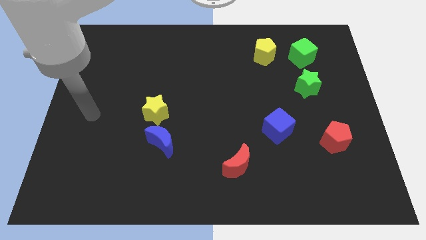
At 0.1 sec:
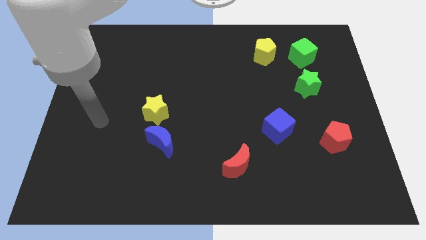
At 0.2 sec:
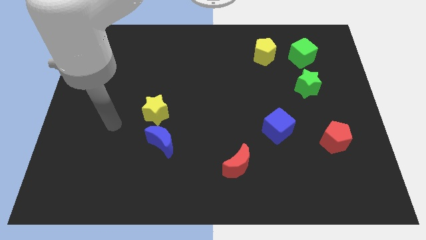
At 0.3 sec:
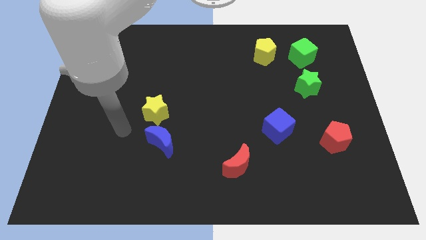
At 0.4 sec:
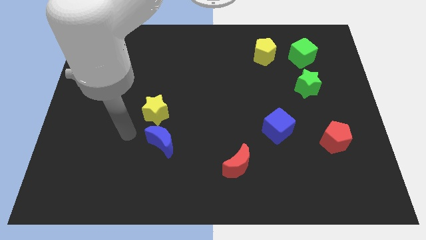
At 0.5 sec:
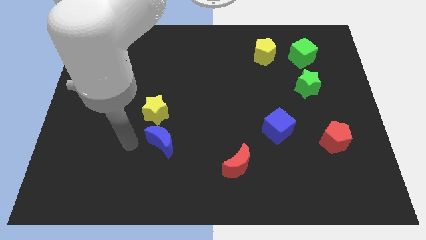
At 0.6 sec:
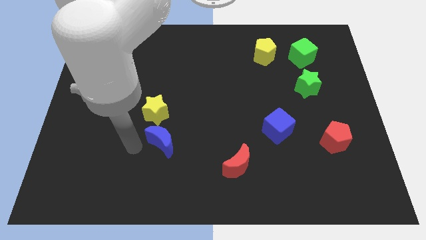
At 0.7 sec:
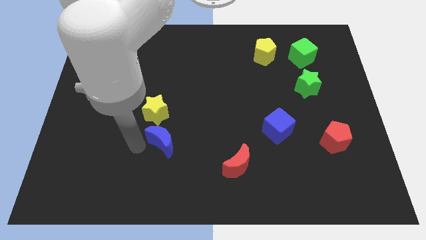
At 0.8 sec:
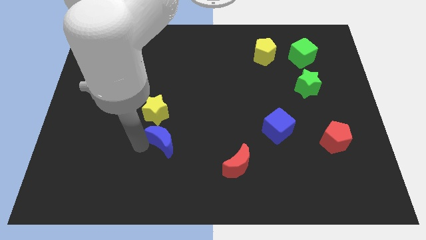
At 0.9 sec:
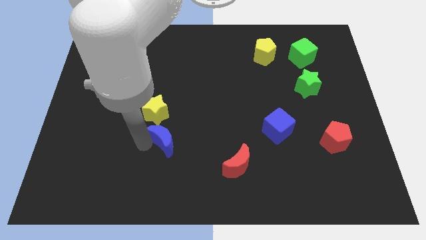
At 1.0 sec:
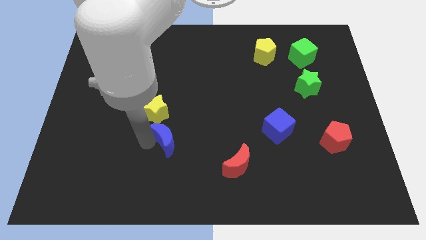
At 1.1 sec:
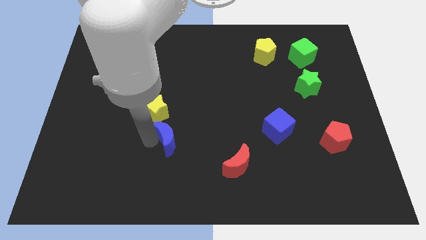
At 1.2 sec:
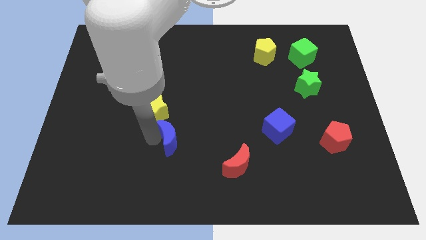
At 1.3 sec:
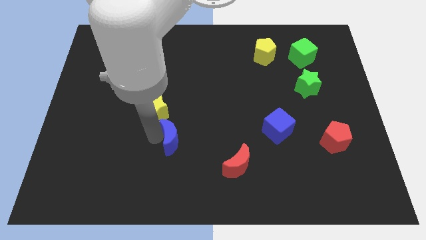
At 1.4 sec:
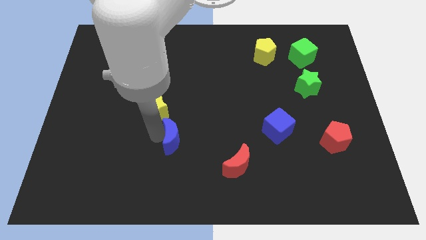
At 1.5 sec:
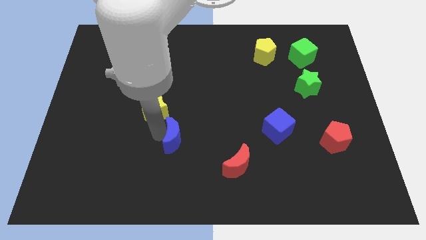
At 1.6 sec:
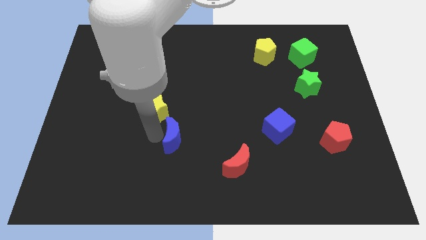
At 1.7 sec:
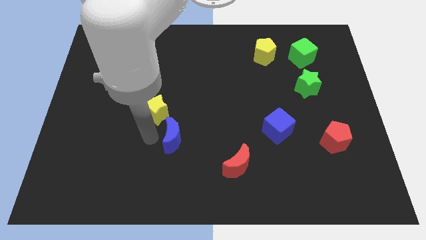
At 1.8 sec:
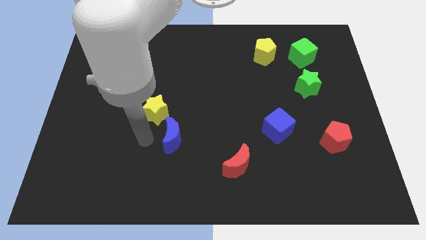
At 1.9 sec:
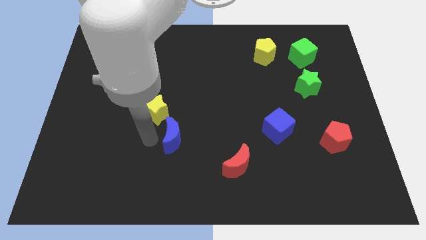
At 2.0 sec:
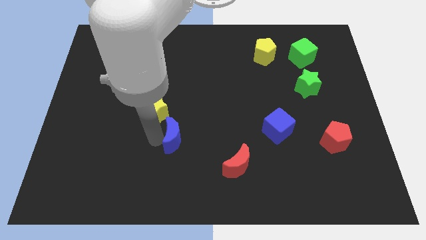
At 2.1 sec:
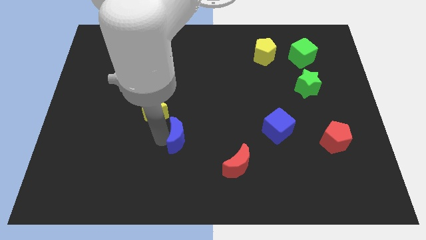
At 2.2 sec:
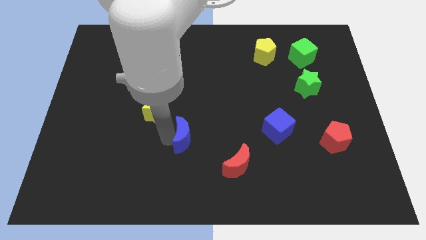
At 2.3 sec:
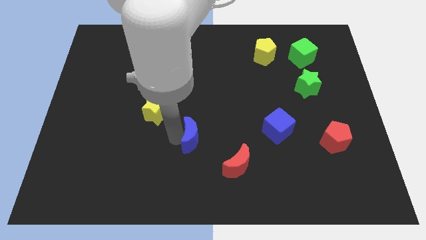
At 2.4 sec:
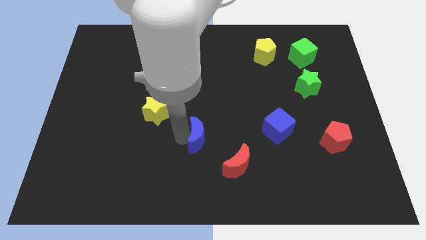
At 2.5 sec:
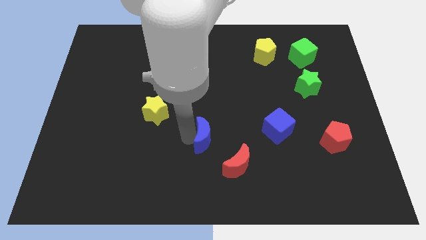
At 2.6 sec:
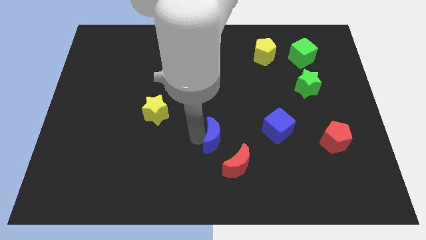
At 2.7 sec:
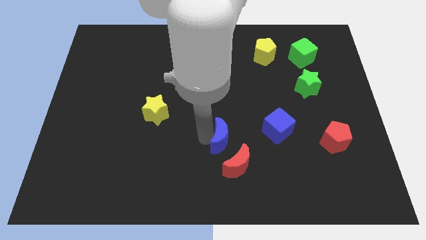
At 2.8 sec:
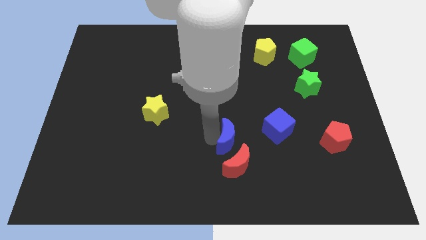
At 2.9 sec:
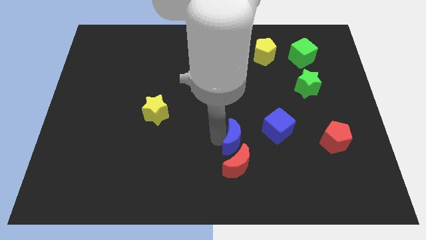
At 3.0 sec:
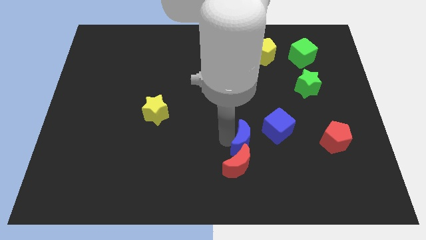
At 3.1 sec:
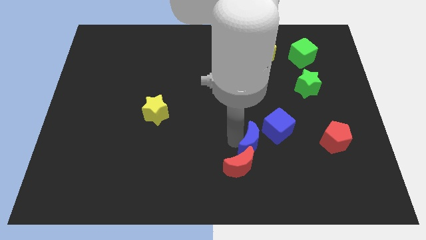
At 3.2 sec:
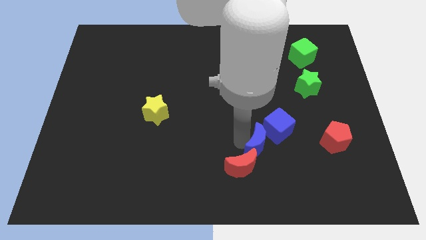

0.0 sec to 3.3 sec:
move the blue moon to the right

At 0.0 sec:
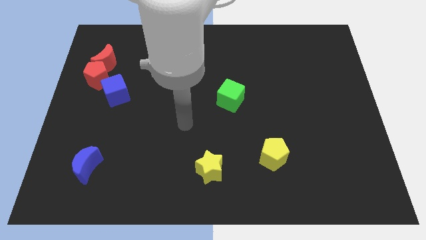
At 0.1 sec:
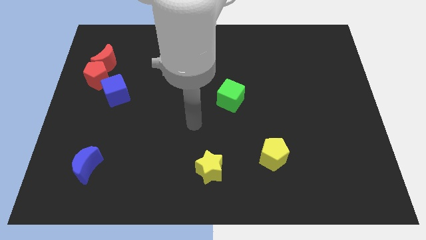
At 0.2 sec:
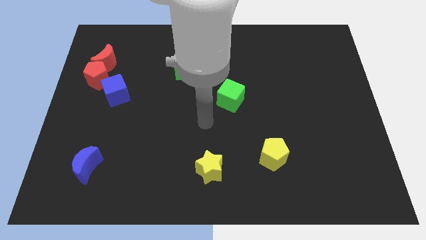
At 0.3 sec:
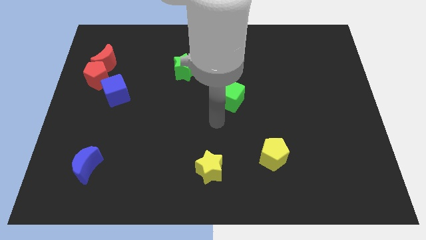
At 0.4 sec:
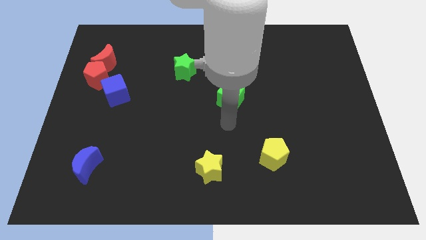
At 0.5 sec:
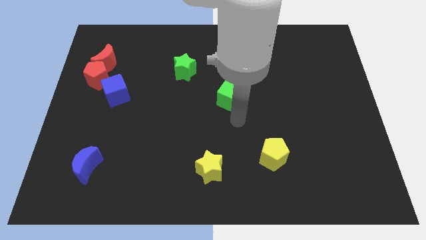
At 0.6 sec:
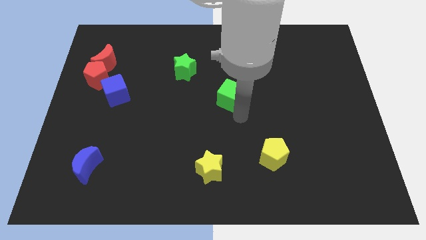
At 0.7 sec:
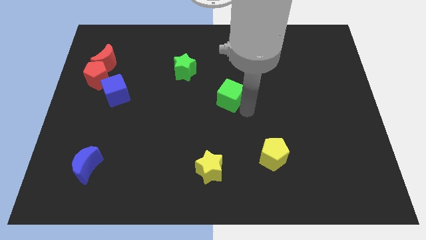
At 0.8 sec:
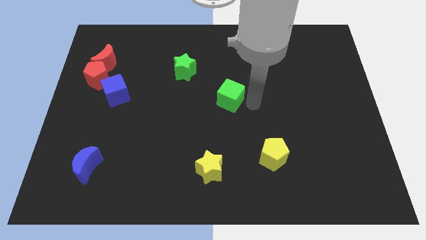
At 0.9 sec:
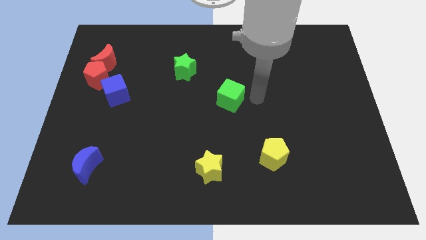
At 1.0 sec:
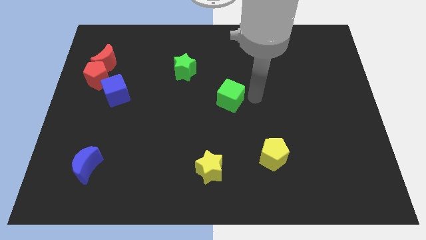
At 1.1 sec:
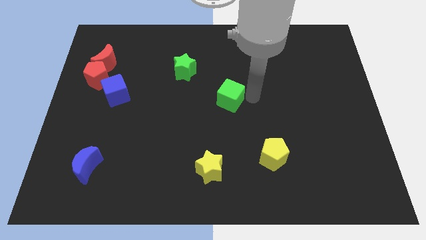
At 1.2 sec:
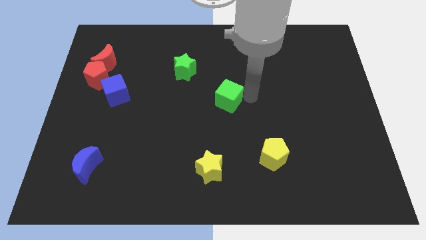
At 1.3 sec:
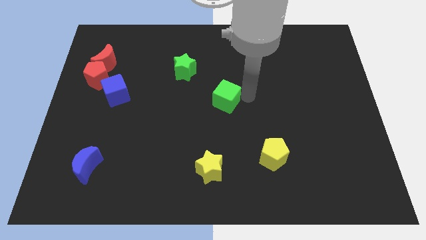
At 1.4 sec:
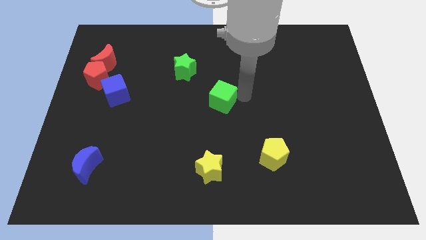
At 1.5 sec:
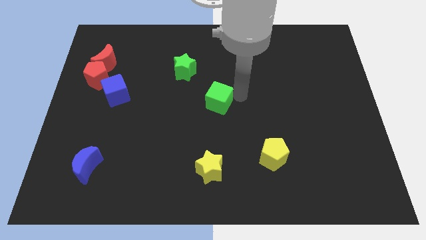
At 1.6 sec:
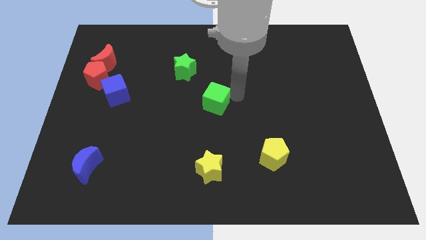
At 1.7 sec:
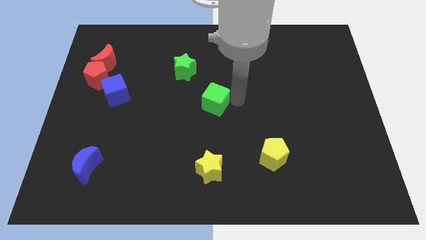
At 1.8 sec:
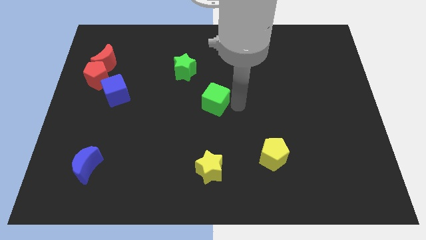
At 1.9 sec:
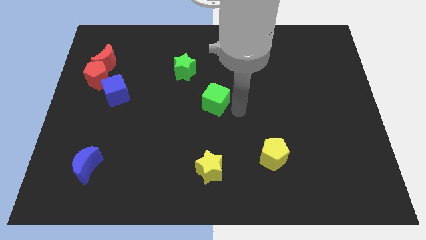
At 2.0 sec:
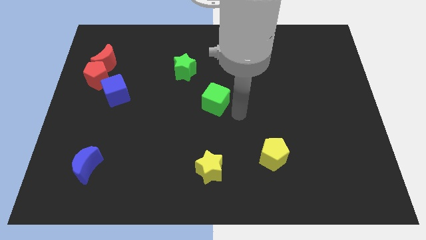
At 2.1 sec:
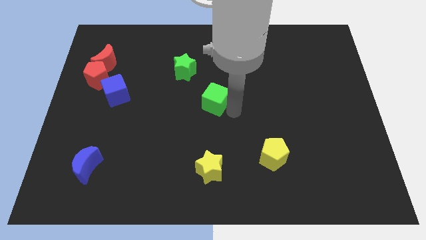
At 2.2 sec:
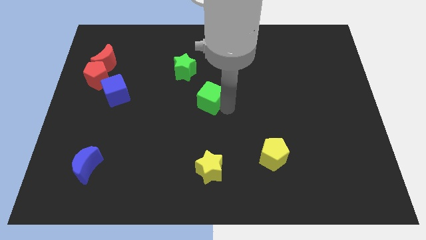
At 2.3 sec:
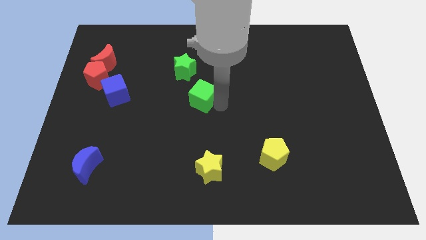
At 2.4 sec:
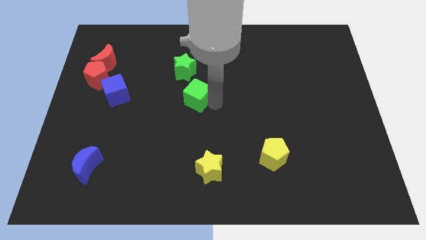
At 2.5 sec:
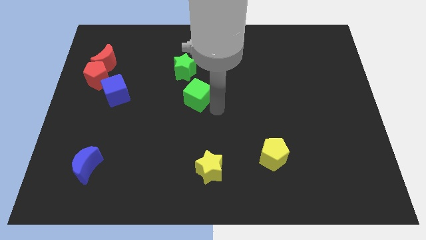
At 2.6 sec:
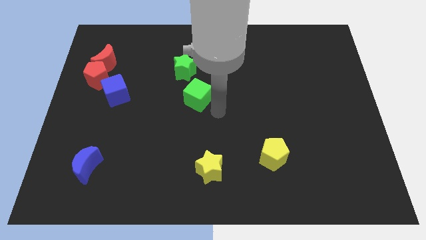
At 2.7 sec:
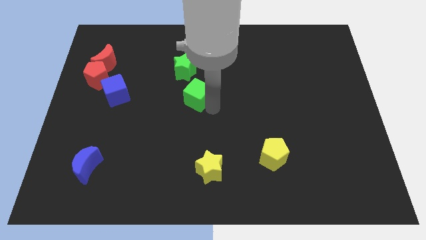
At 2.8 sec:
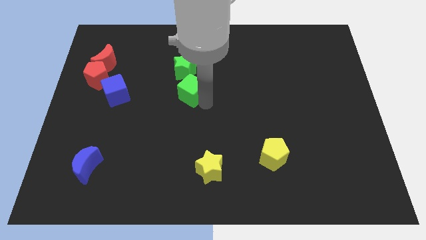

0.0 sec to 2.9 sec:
slightly push the green cube up and to the left diagonally

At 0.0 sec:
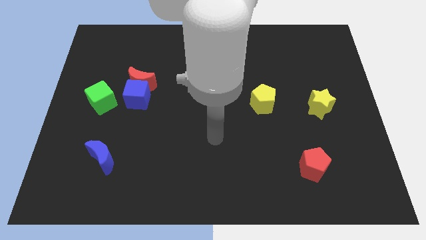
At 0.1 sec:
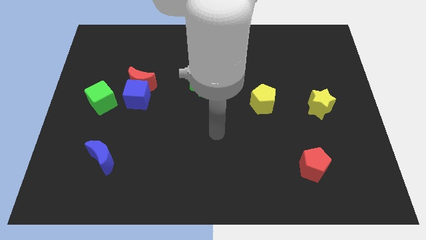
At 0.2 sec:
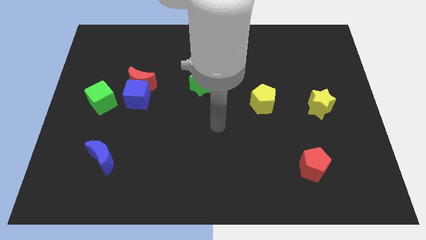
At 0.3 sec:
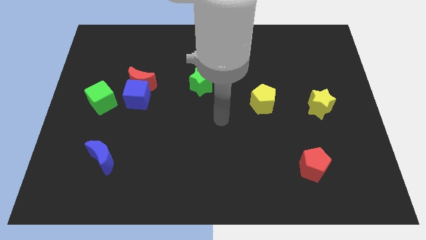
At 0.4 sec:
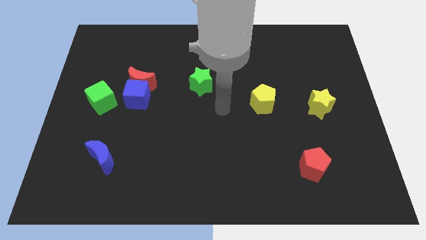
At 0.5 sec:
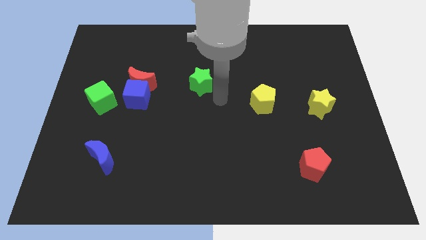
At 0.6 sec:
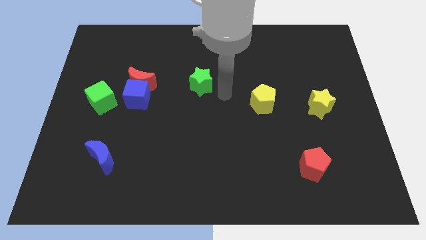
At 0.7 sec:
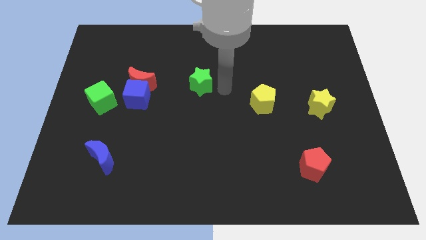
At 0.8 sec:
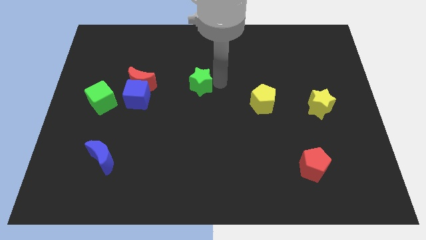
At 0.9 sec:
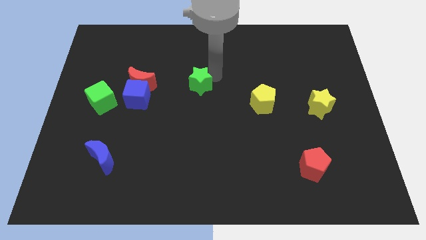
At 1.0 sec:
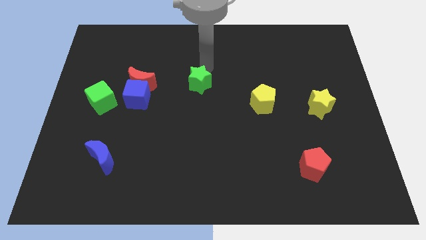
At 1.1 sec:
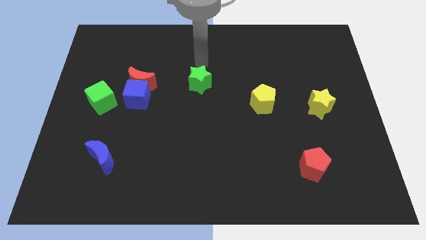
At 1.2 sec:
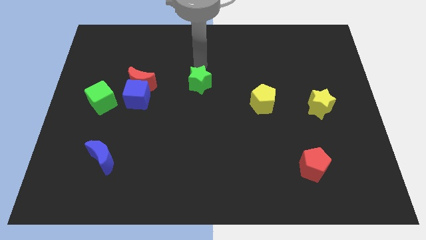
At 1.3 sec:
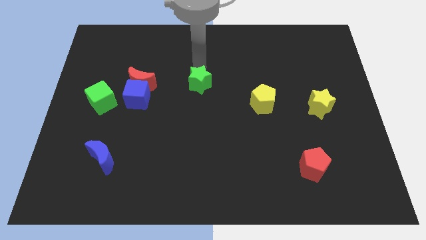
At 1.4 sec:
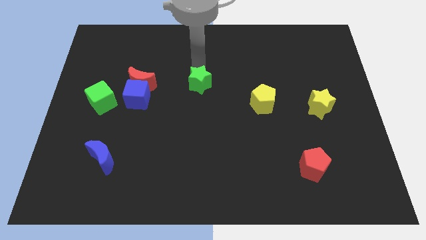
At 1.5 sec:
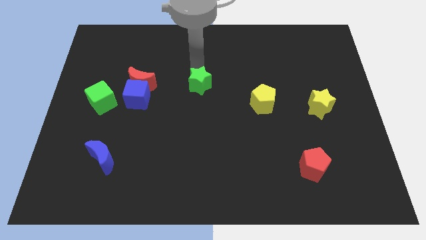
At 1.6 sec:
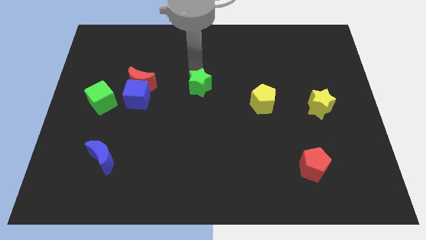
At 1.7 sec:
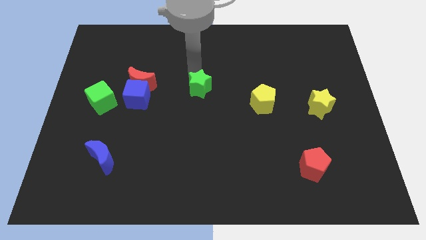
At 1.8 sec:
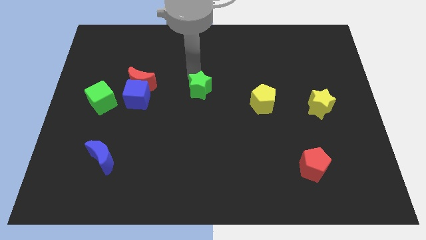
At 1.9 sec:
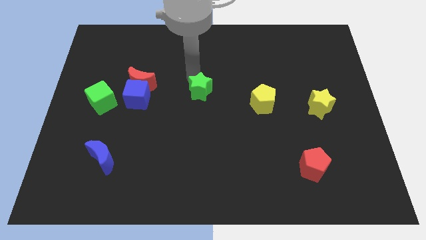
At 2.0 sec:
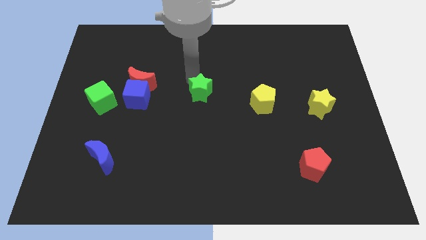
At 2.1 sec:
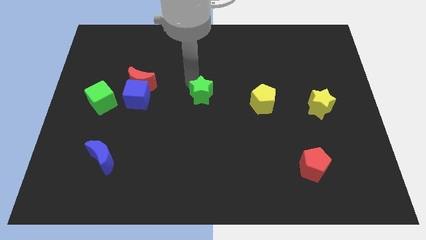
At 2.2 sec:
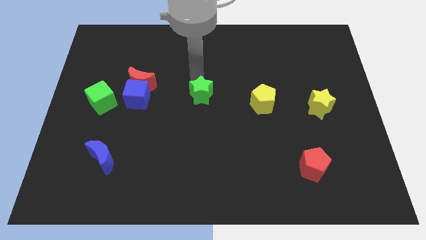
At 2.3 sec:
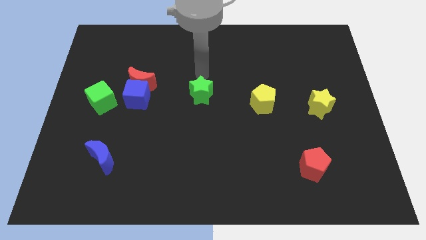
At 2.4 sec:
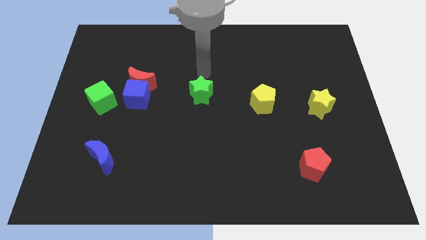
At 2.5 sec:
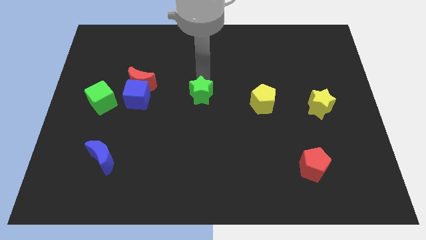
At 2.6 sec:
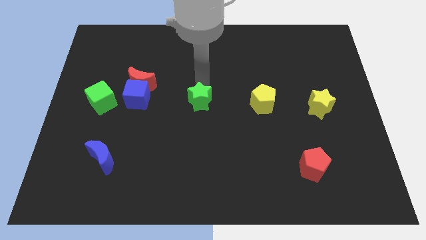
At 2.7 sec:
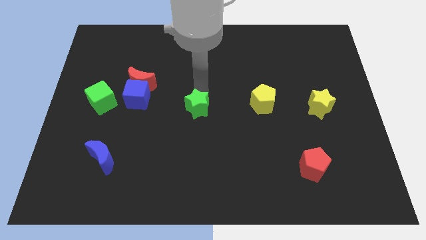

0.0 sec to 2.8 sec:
slightly move the green star downwards
